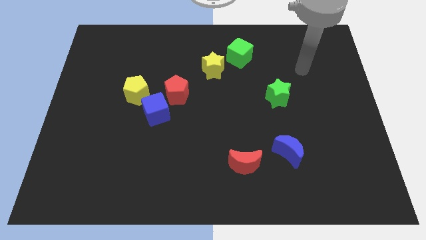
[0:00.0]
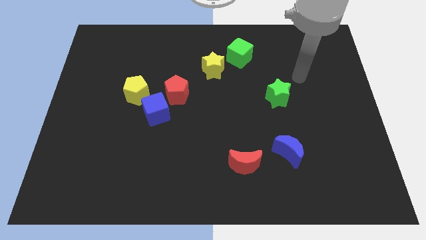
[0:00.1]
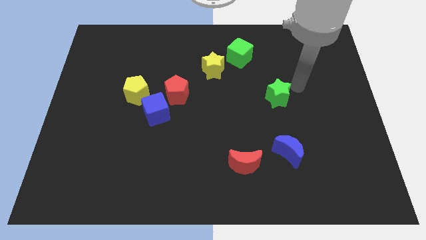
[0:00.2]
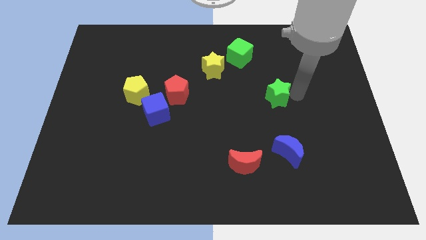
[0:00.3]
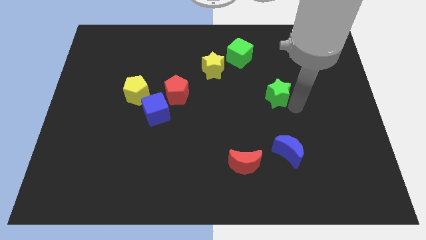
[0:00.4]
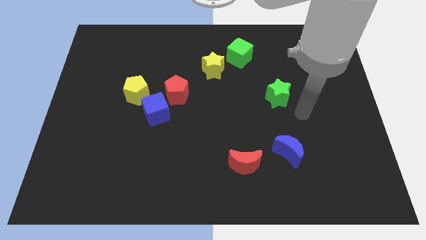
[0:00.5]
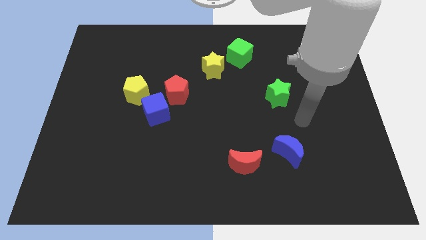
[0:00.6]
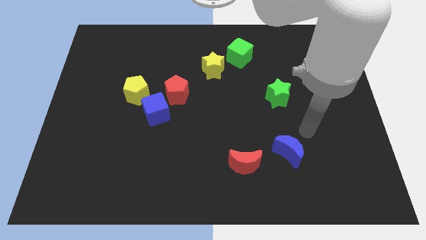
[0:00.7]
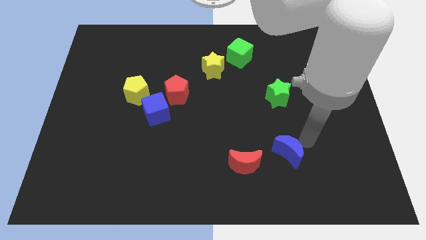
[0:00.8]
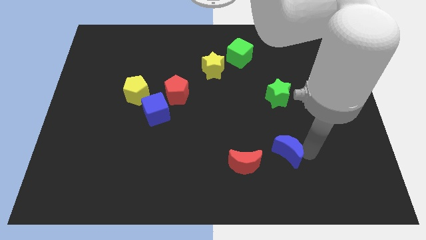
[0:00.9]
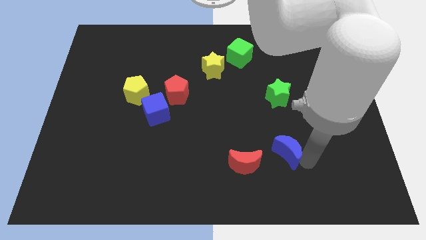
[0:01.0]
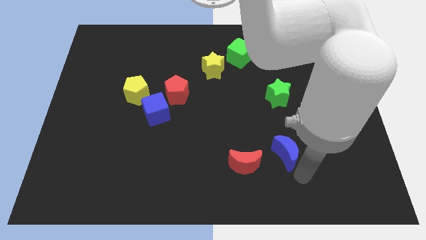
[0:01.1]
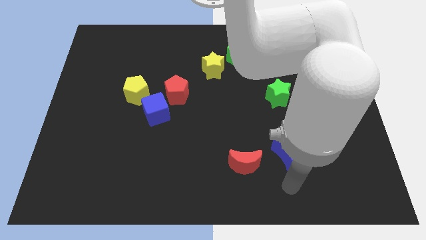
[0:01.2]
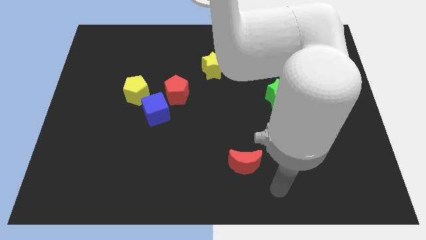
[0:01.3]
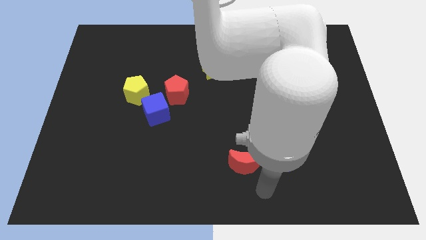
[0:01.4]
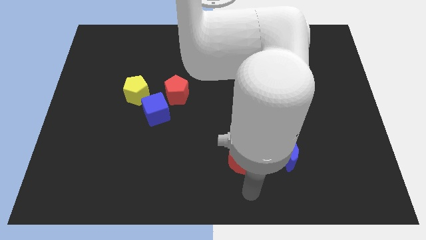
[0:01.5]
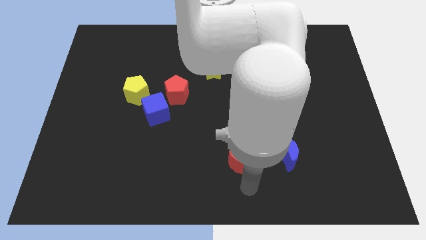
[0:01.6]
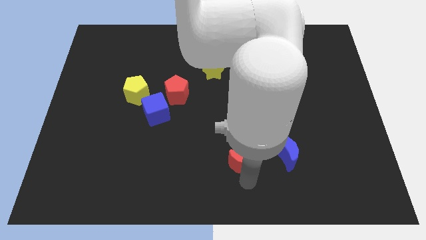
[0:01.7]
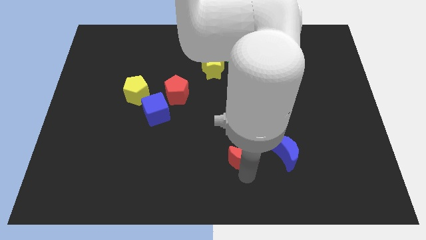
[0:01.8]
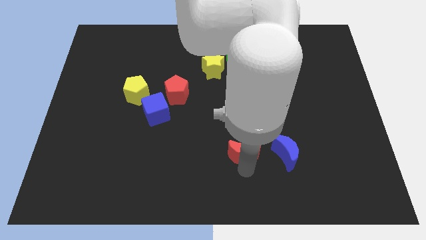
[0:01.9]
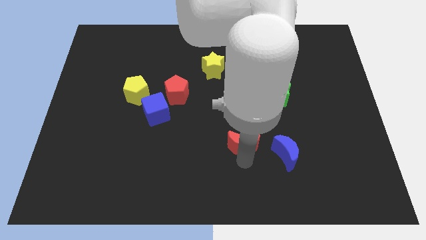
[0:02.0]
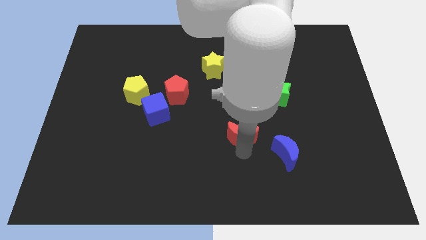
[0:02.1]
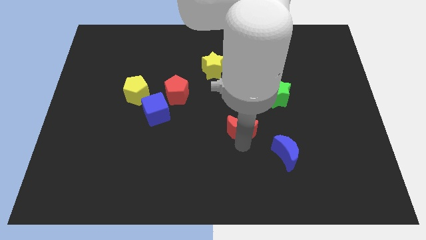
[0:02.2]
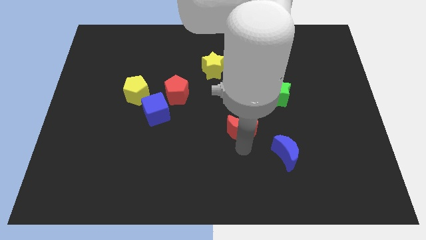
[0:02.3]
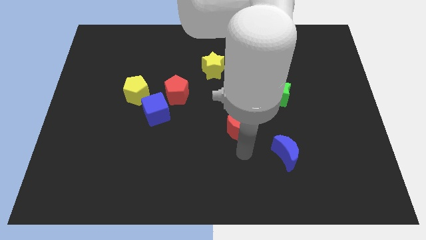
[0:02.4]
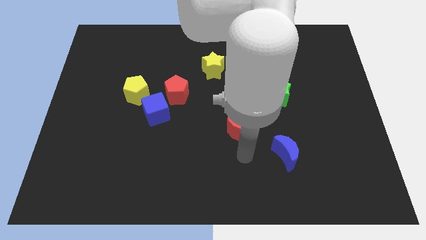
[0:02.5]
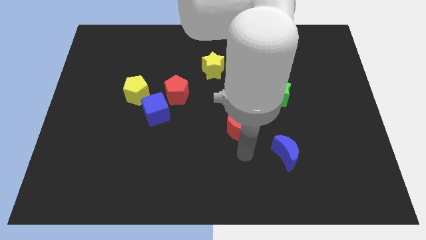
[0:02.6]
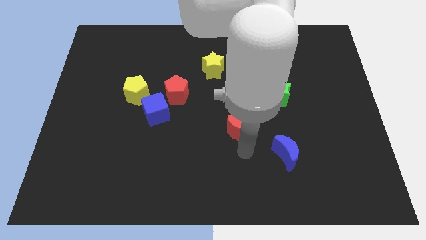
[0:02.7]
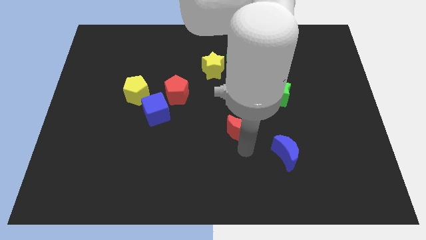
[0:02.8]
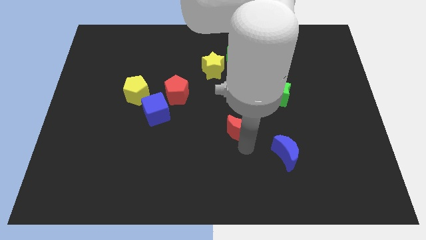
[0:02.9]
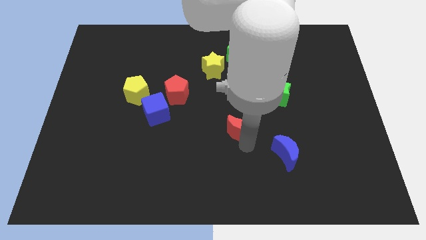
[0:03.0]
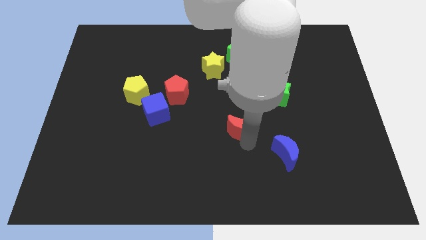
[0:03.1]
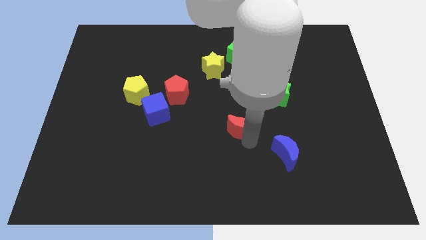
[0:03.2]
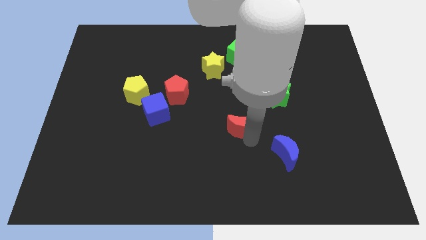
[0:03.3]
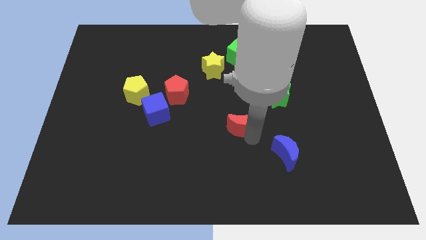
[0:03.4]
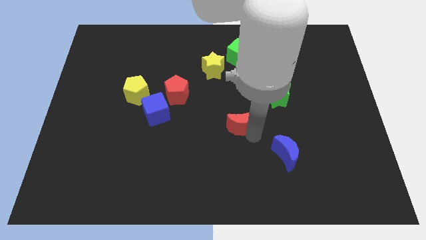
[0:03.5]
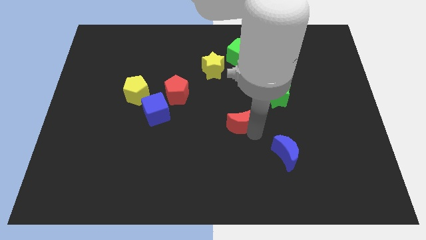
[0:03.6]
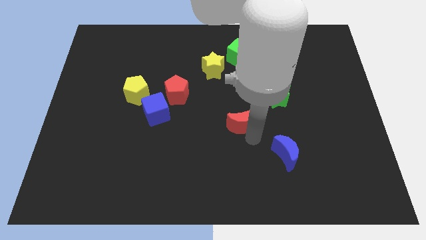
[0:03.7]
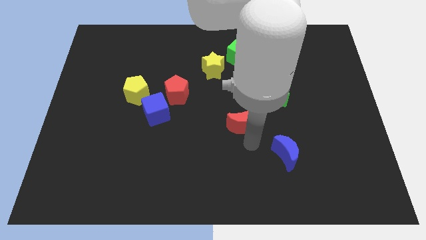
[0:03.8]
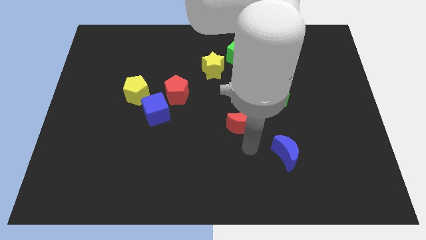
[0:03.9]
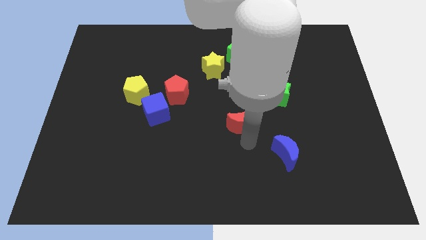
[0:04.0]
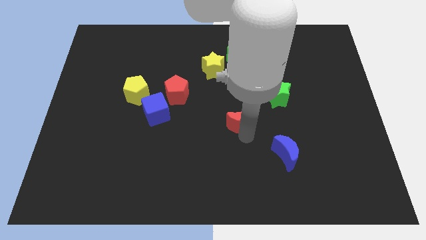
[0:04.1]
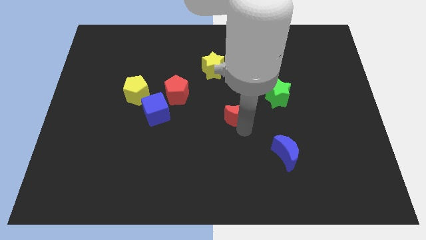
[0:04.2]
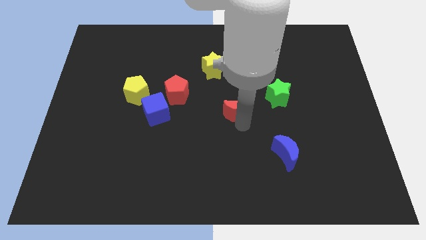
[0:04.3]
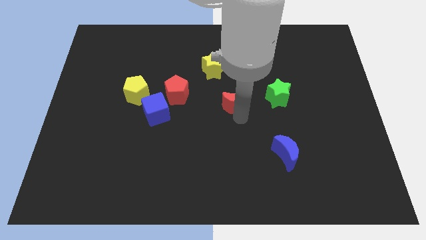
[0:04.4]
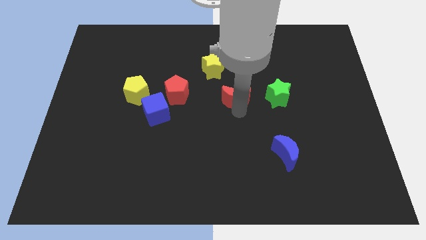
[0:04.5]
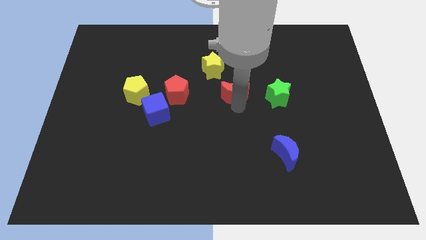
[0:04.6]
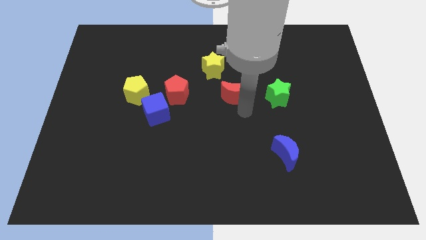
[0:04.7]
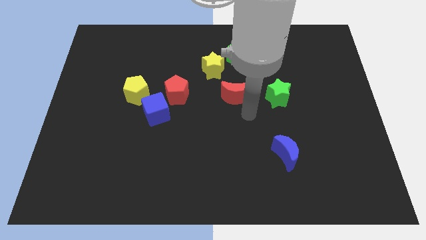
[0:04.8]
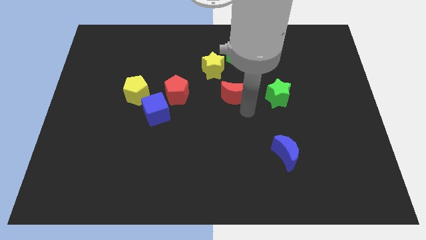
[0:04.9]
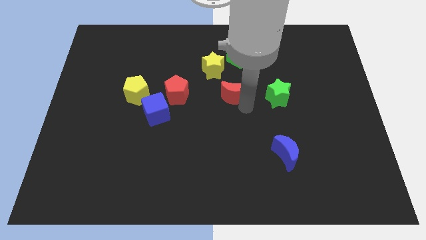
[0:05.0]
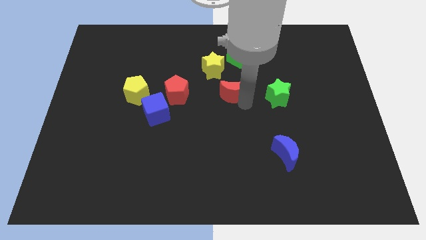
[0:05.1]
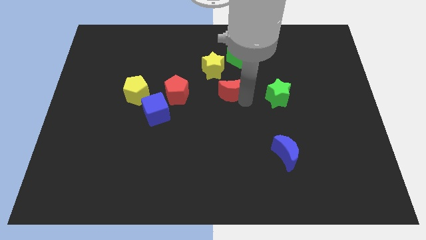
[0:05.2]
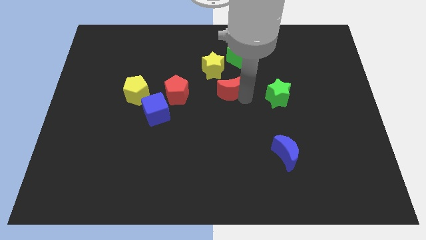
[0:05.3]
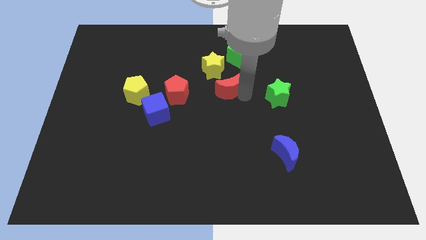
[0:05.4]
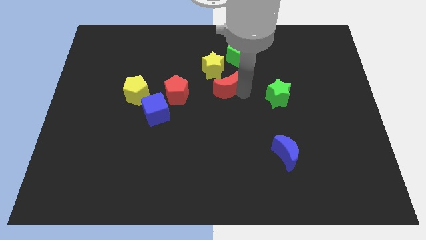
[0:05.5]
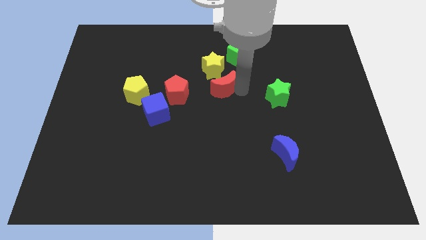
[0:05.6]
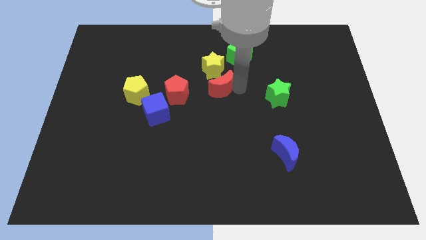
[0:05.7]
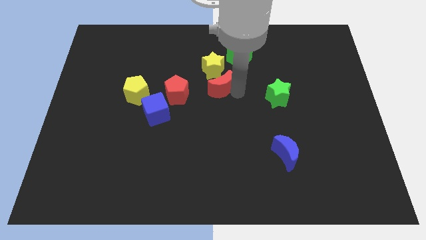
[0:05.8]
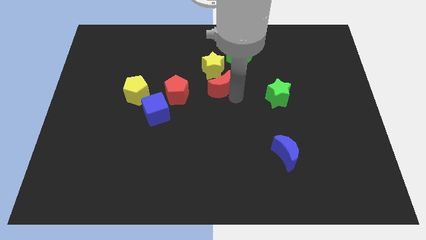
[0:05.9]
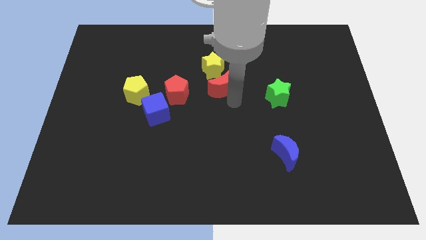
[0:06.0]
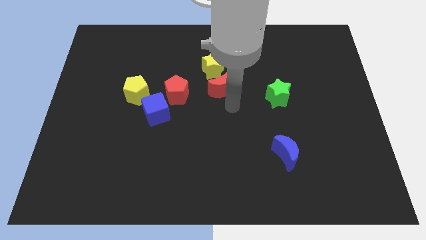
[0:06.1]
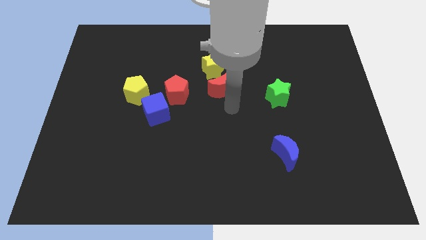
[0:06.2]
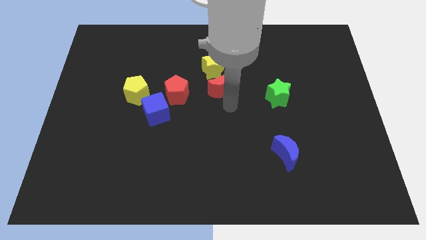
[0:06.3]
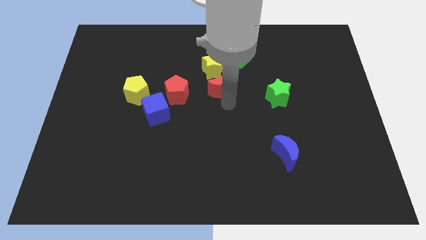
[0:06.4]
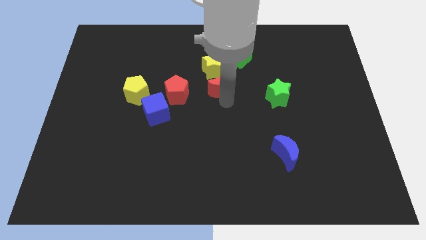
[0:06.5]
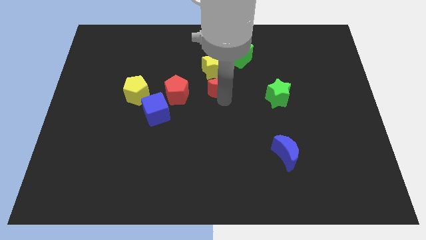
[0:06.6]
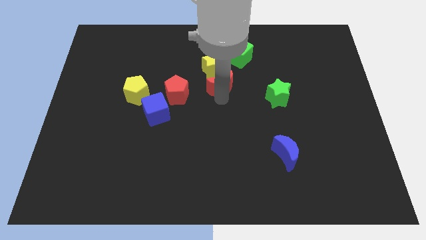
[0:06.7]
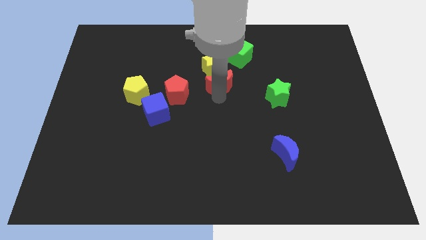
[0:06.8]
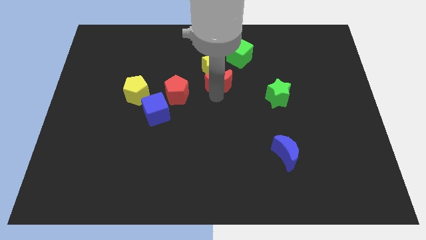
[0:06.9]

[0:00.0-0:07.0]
push the red moon next to the yellow star
